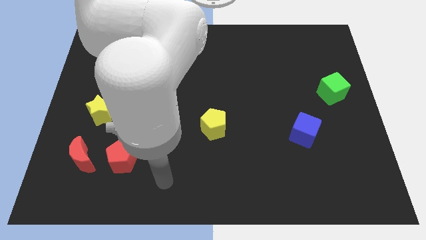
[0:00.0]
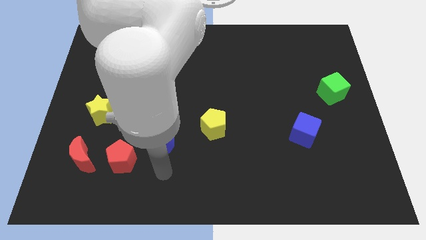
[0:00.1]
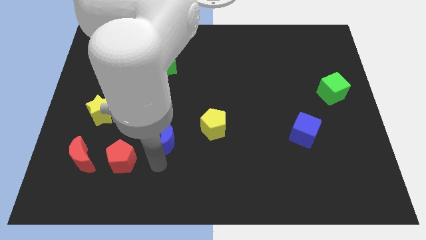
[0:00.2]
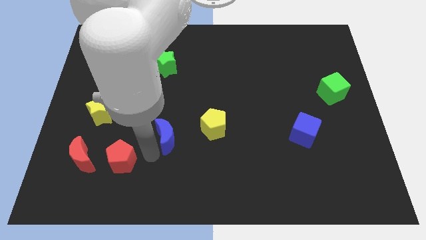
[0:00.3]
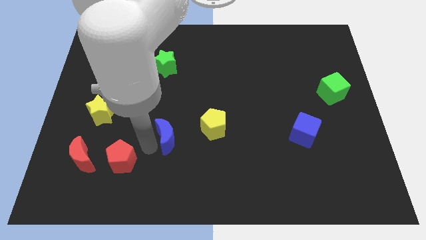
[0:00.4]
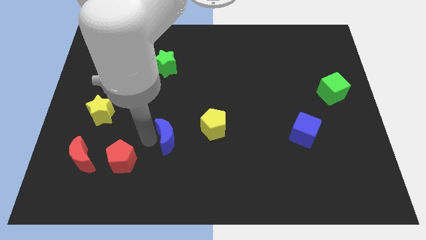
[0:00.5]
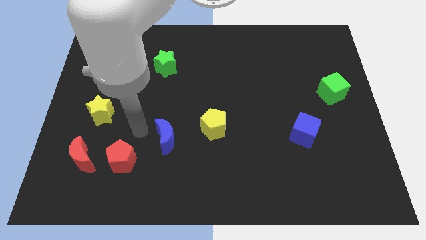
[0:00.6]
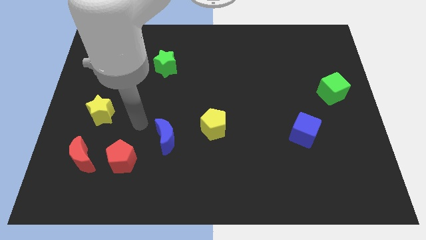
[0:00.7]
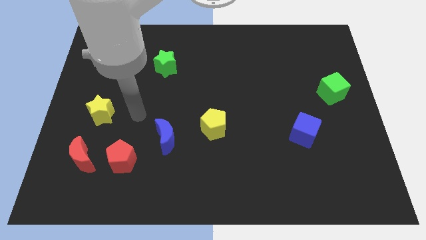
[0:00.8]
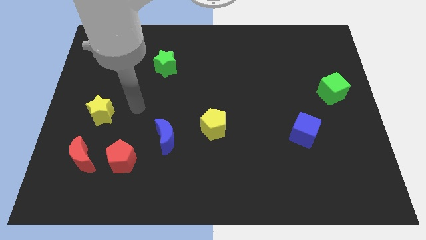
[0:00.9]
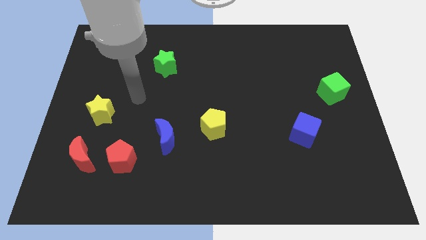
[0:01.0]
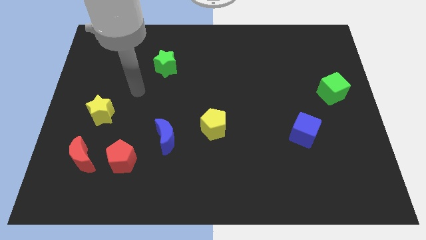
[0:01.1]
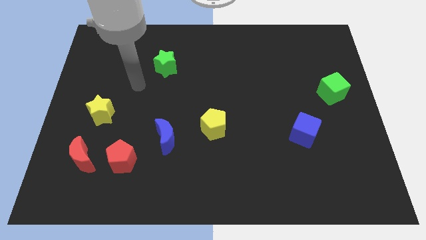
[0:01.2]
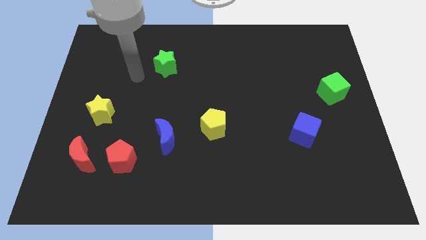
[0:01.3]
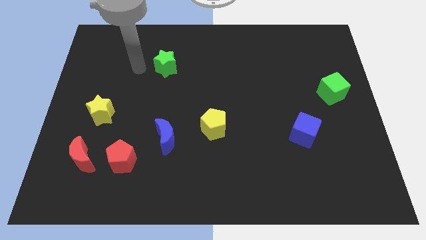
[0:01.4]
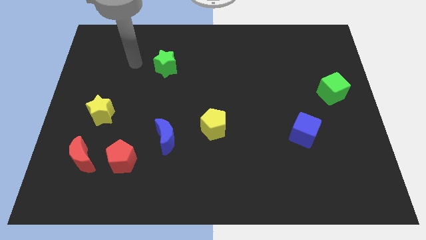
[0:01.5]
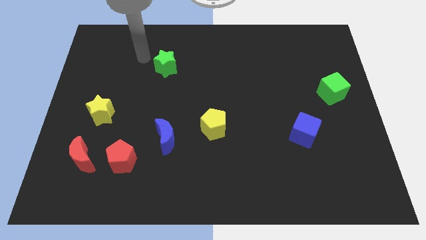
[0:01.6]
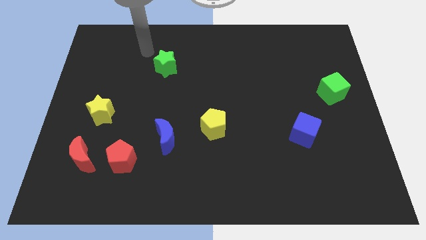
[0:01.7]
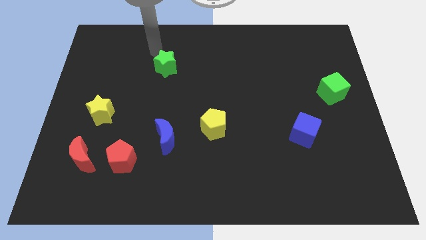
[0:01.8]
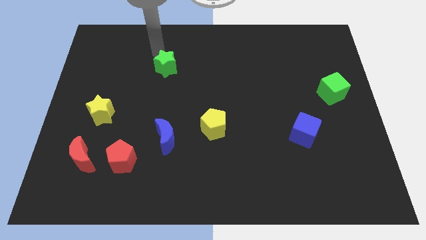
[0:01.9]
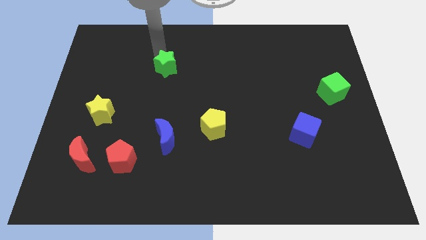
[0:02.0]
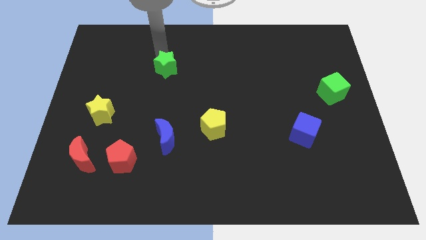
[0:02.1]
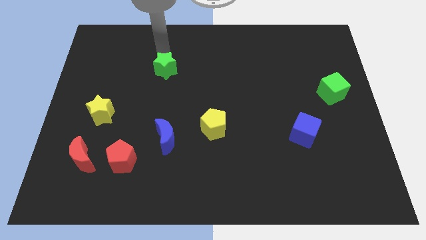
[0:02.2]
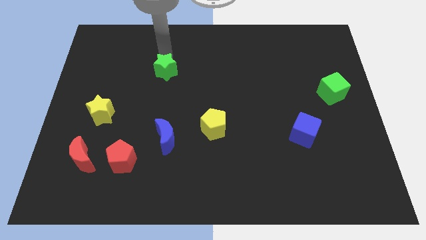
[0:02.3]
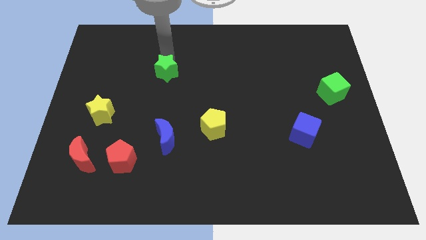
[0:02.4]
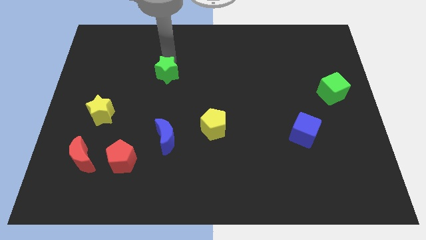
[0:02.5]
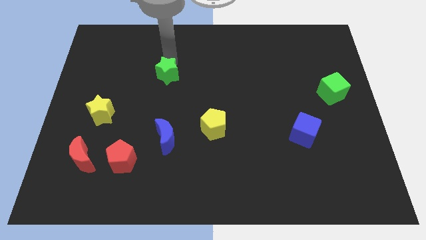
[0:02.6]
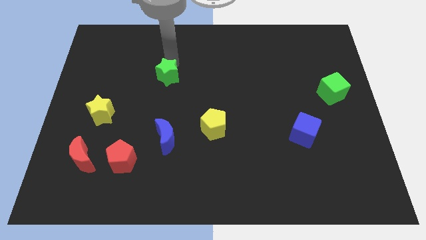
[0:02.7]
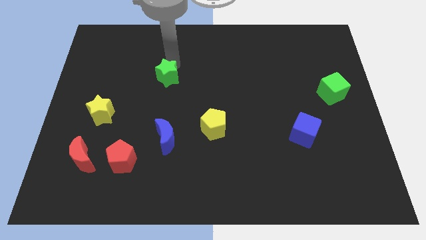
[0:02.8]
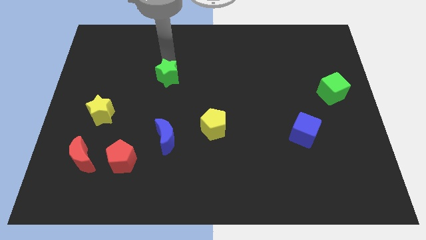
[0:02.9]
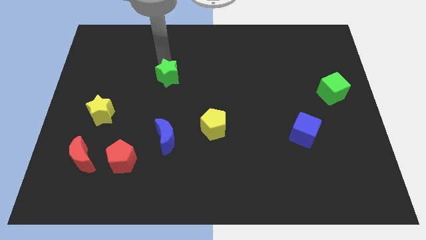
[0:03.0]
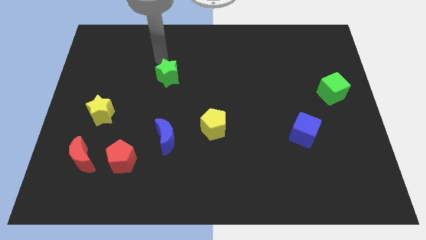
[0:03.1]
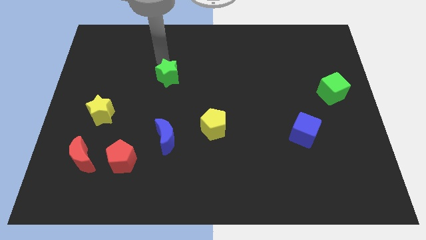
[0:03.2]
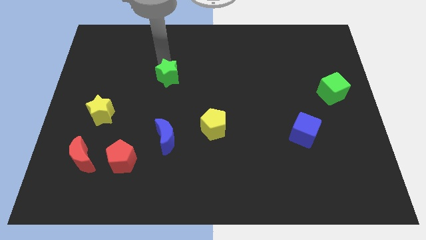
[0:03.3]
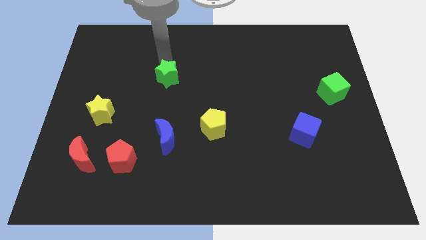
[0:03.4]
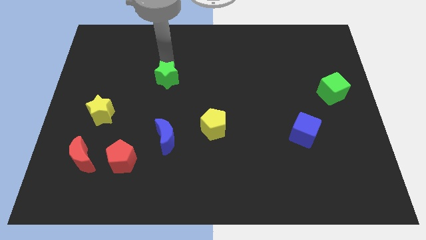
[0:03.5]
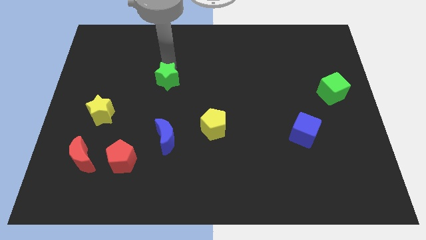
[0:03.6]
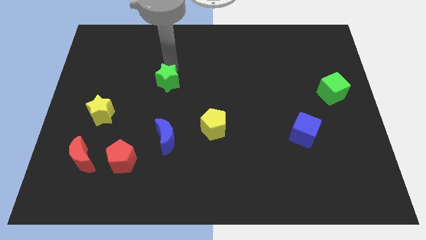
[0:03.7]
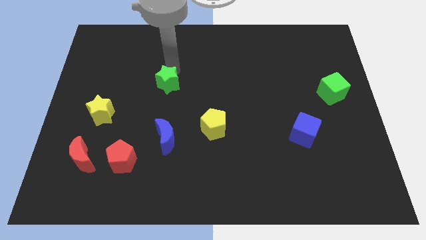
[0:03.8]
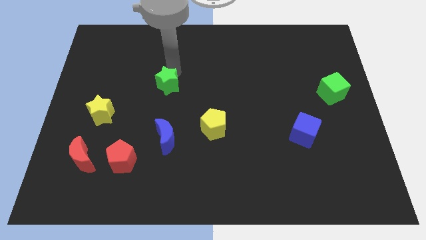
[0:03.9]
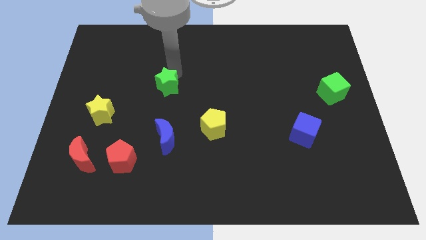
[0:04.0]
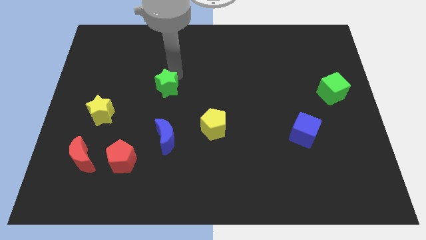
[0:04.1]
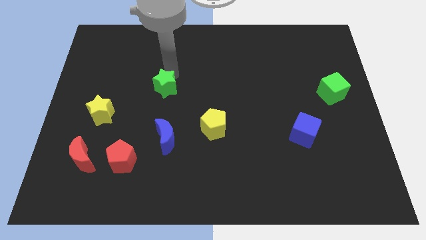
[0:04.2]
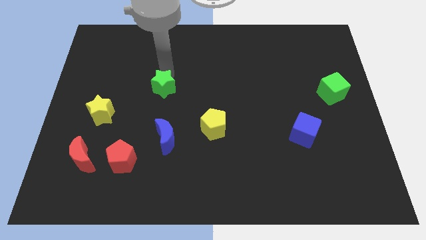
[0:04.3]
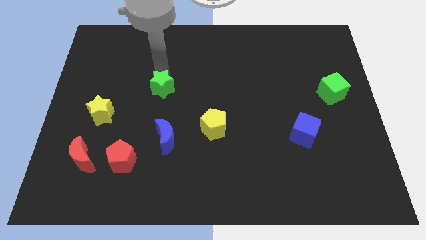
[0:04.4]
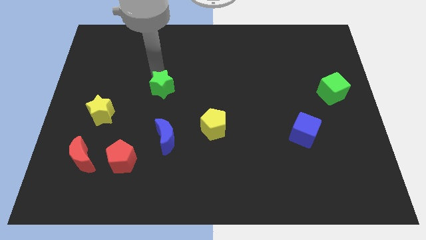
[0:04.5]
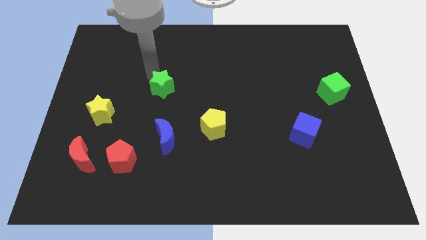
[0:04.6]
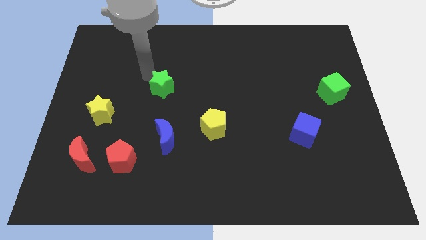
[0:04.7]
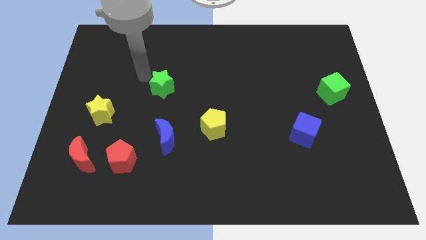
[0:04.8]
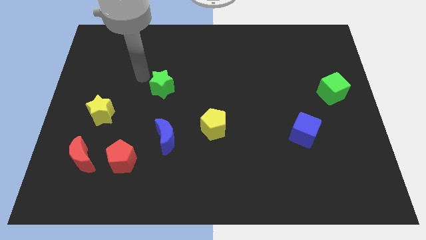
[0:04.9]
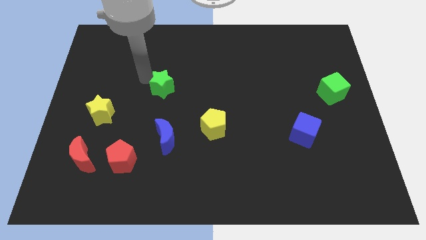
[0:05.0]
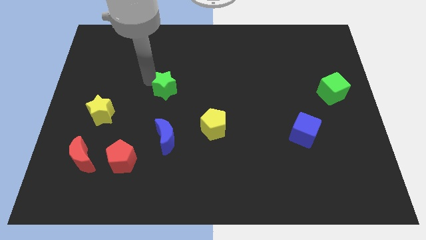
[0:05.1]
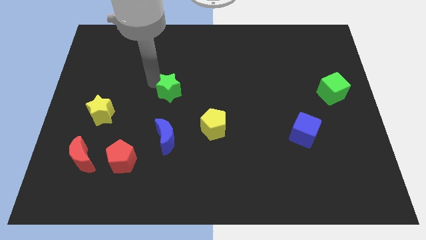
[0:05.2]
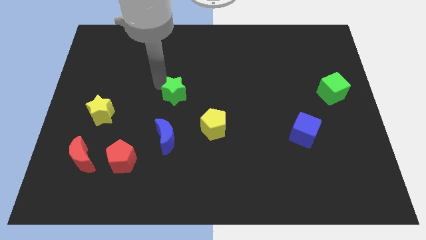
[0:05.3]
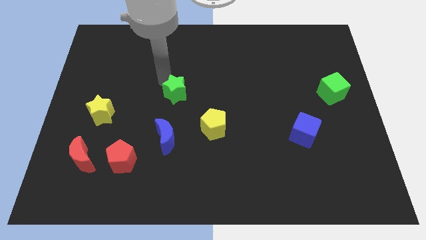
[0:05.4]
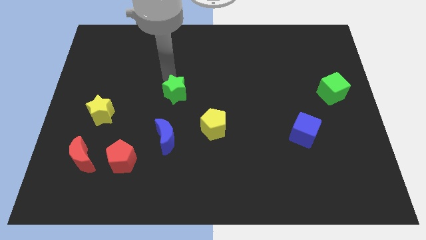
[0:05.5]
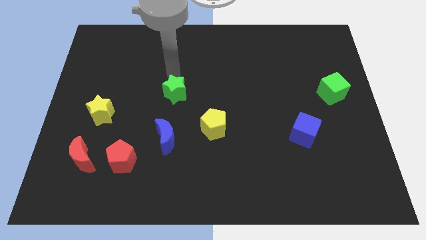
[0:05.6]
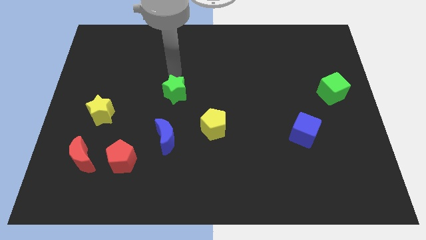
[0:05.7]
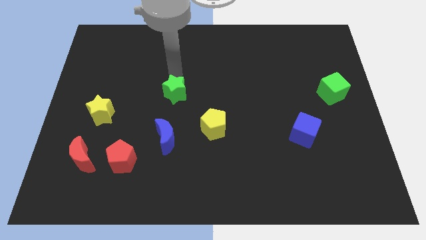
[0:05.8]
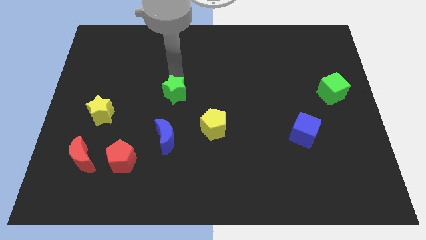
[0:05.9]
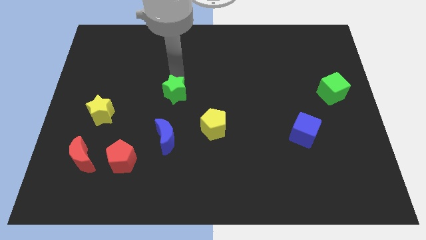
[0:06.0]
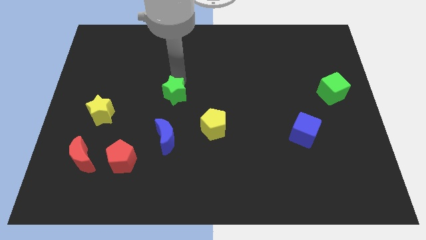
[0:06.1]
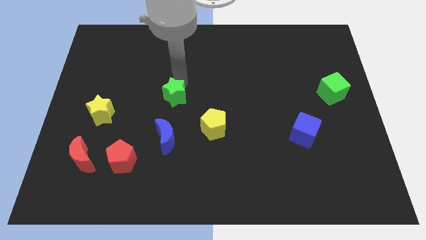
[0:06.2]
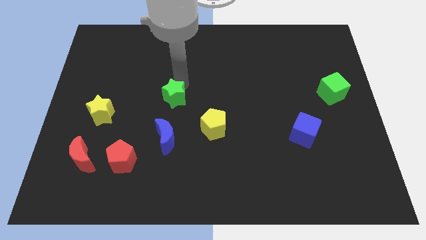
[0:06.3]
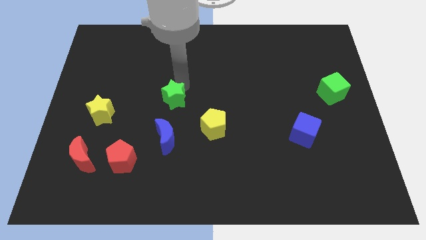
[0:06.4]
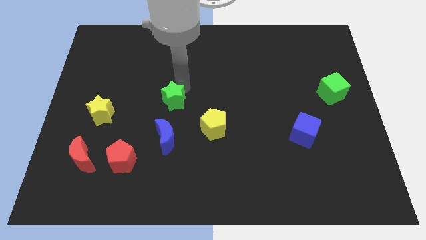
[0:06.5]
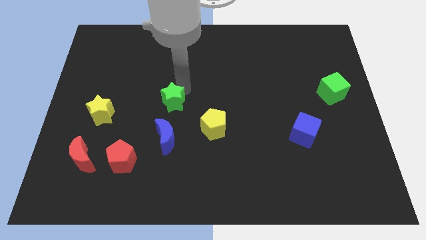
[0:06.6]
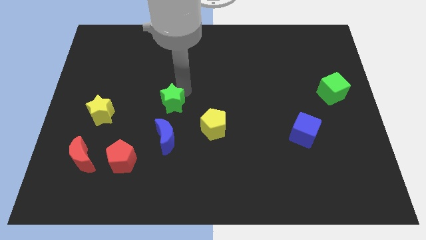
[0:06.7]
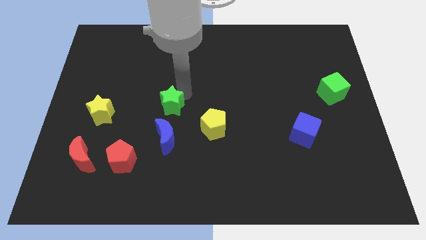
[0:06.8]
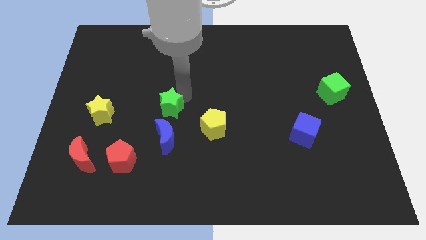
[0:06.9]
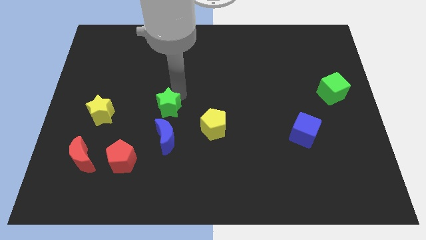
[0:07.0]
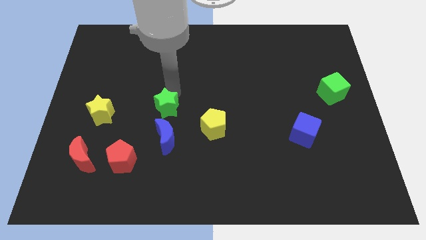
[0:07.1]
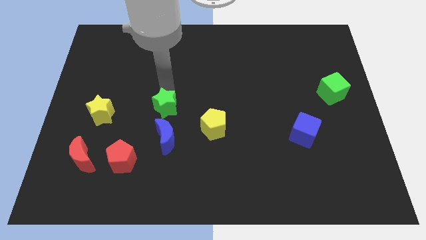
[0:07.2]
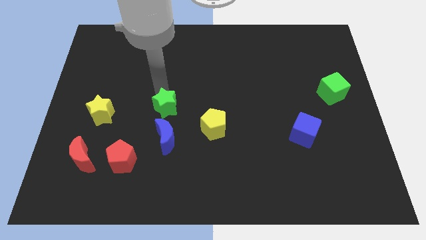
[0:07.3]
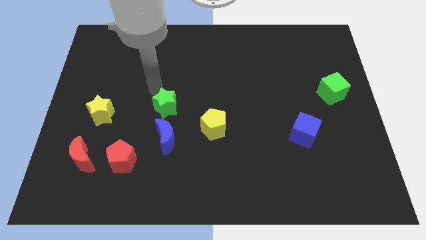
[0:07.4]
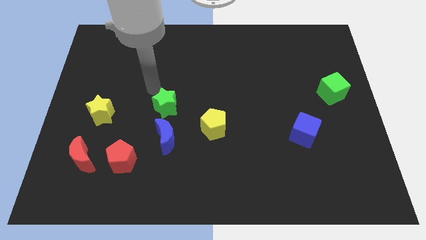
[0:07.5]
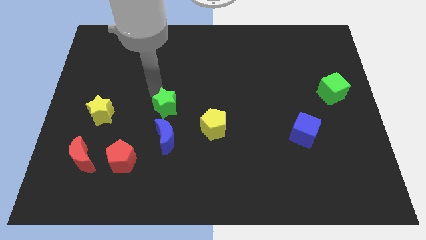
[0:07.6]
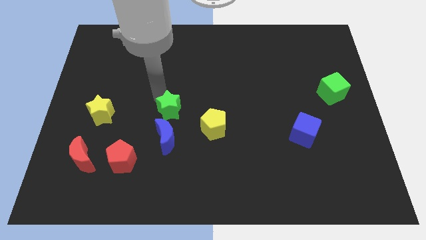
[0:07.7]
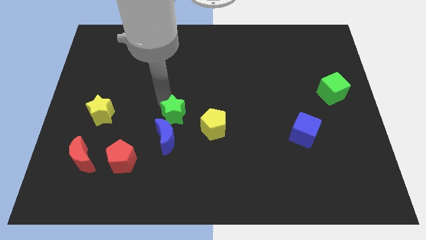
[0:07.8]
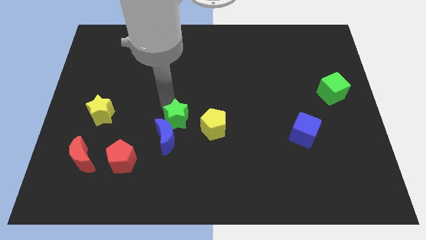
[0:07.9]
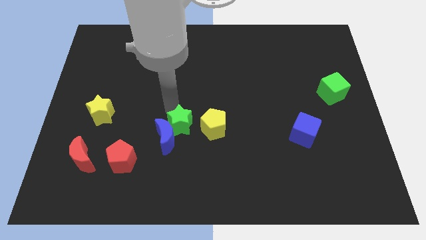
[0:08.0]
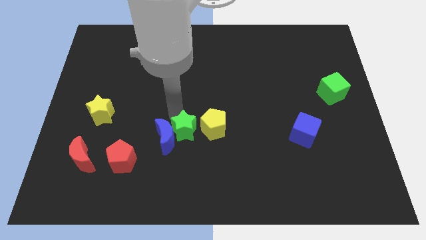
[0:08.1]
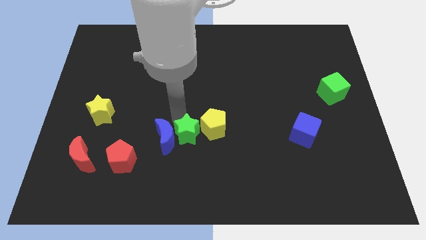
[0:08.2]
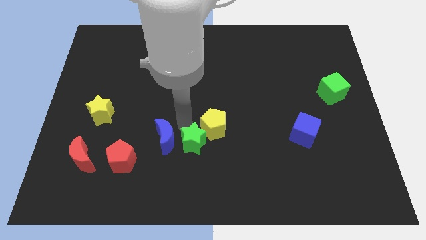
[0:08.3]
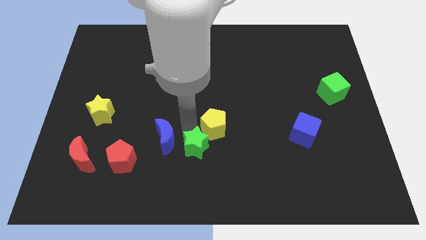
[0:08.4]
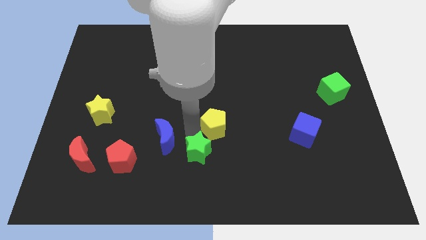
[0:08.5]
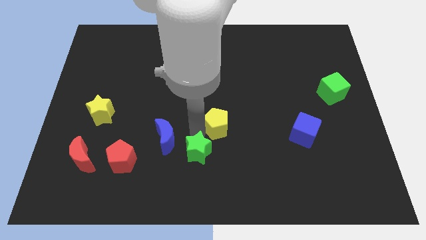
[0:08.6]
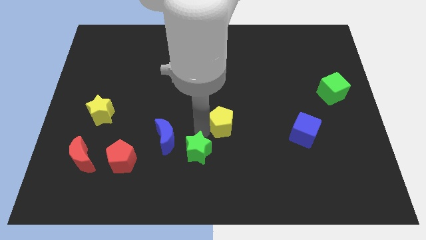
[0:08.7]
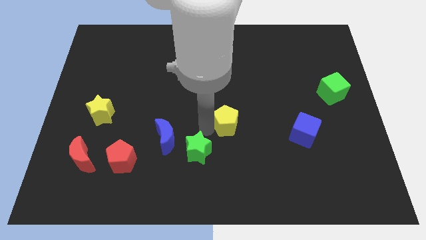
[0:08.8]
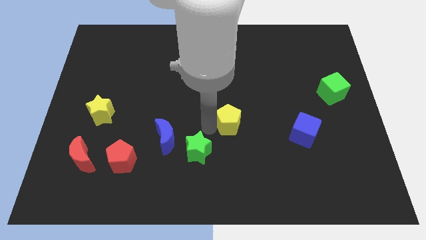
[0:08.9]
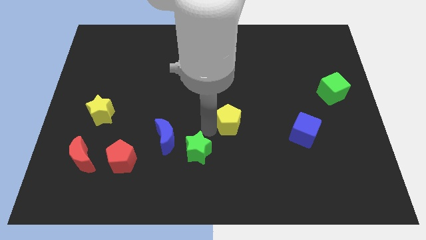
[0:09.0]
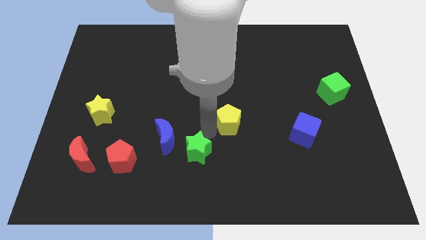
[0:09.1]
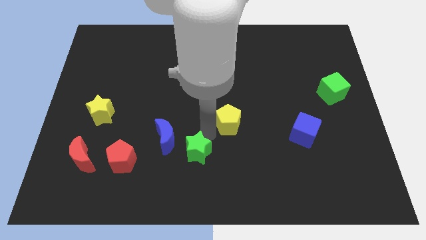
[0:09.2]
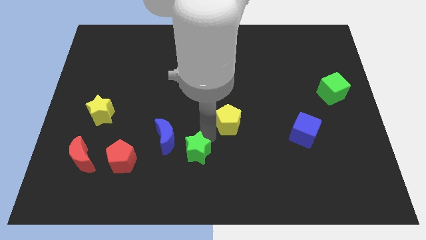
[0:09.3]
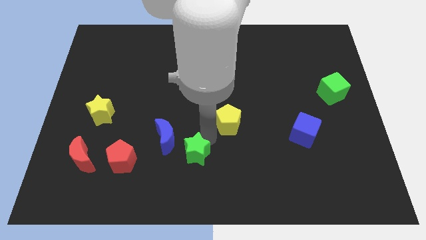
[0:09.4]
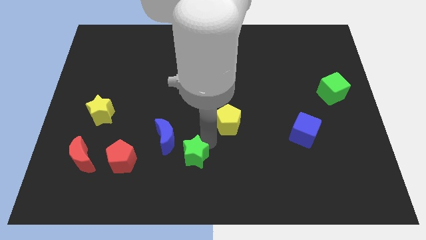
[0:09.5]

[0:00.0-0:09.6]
push the green star to the bottom
